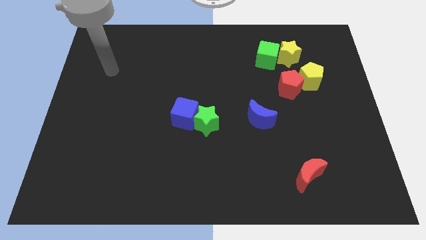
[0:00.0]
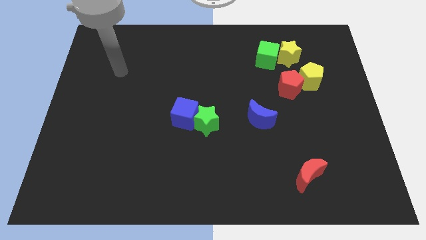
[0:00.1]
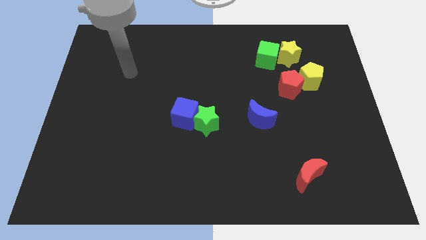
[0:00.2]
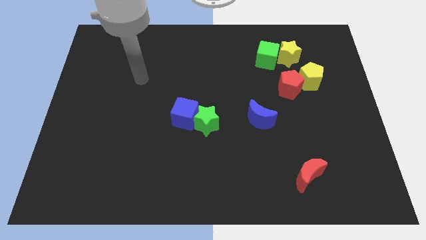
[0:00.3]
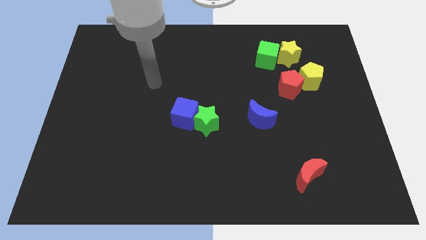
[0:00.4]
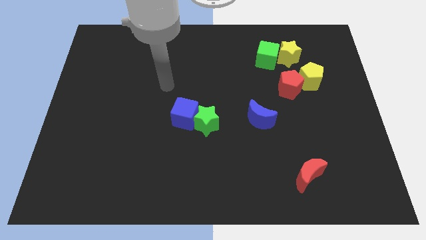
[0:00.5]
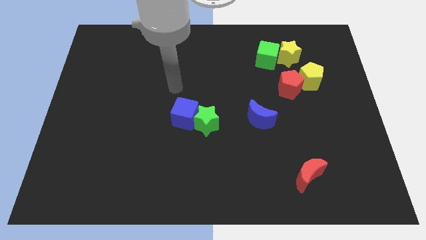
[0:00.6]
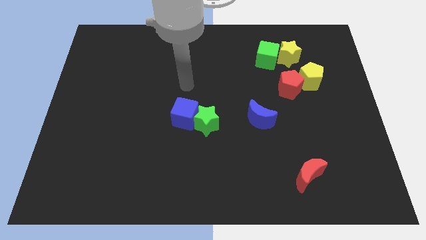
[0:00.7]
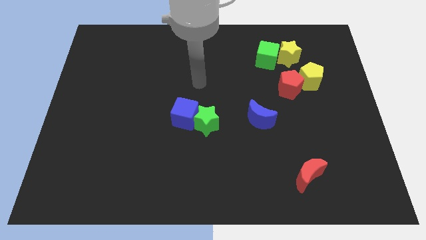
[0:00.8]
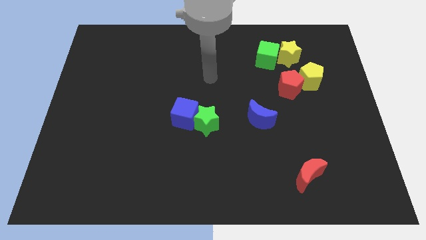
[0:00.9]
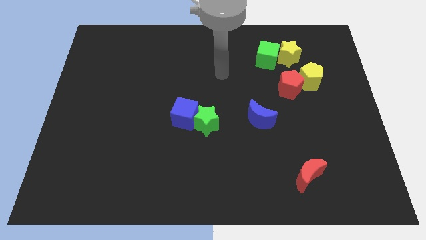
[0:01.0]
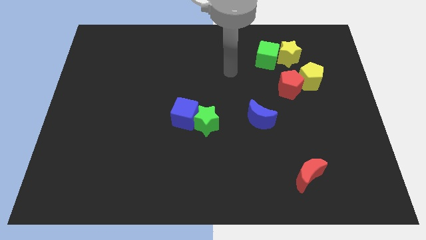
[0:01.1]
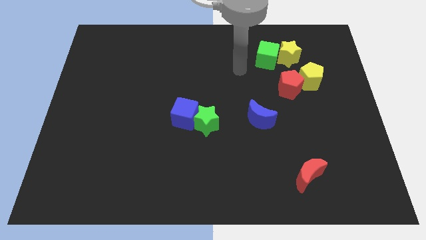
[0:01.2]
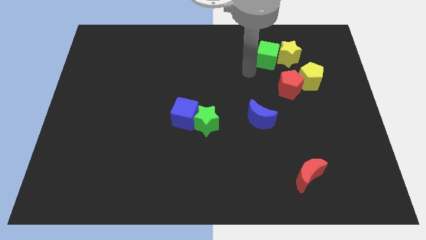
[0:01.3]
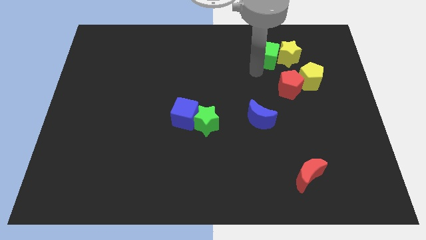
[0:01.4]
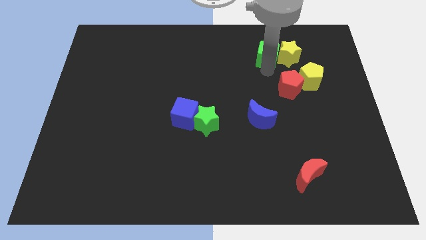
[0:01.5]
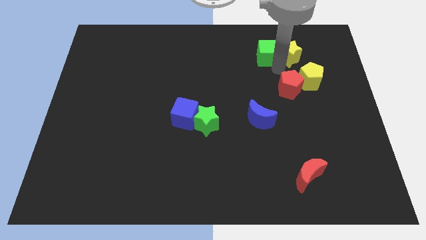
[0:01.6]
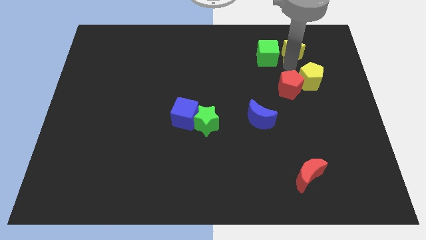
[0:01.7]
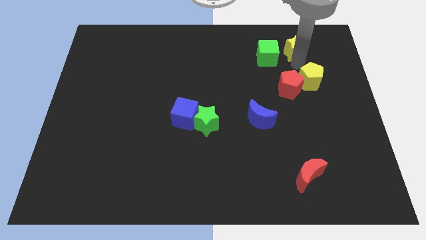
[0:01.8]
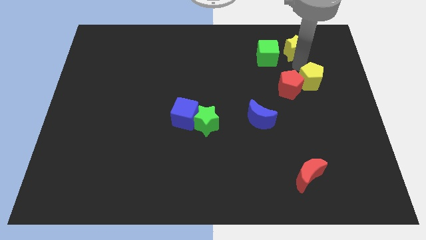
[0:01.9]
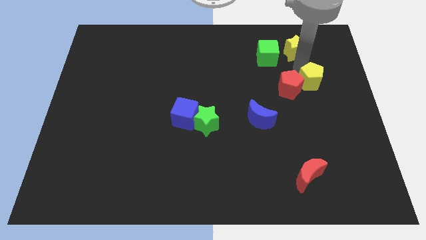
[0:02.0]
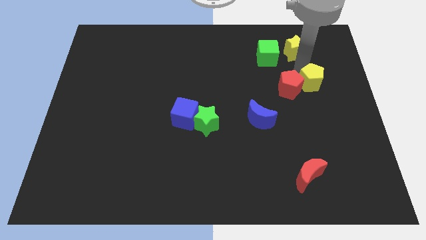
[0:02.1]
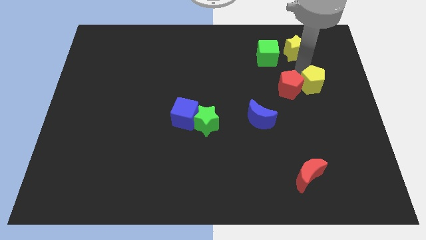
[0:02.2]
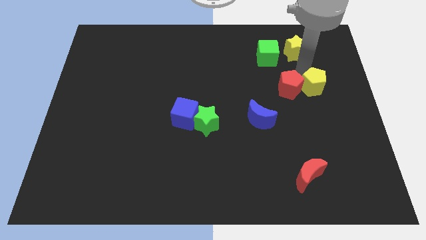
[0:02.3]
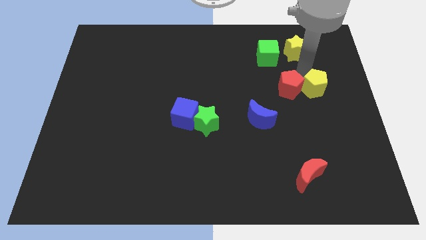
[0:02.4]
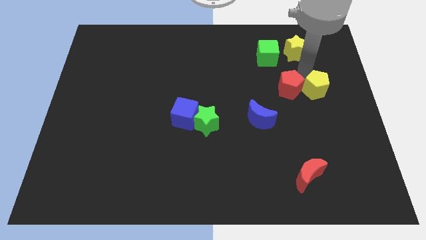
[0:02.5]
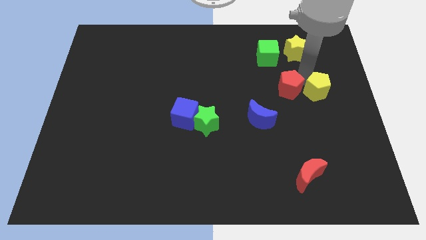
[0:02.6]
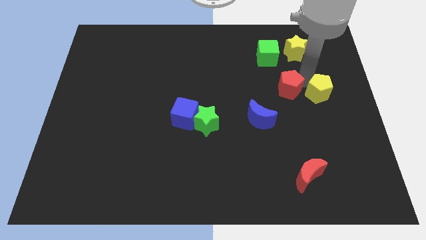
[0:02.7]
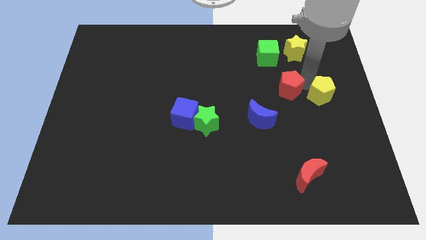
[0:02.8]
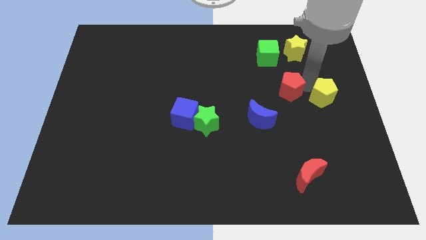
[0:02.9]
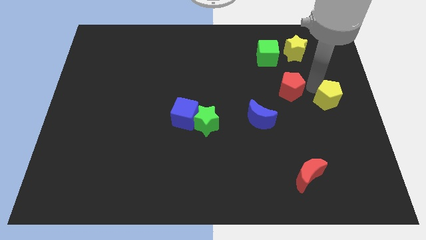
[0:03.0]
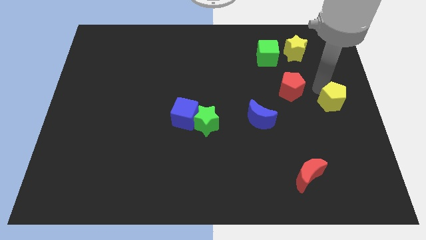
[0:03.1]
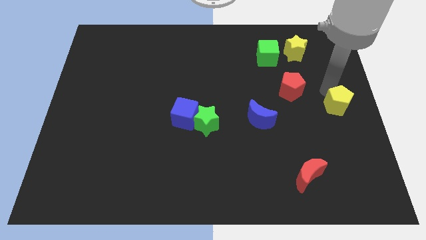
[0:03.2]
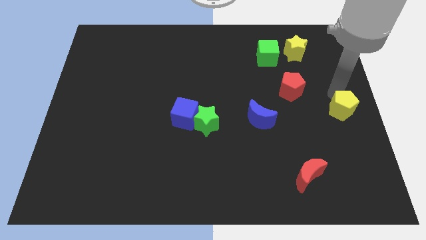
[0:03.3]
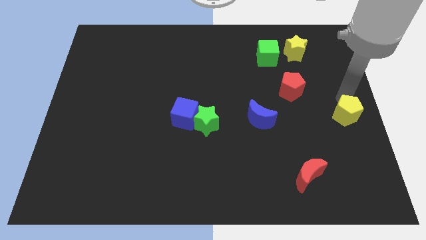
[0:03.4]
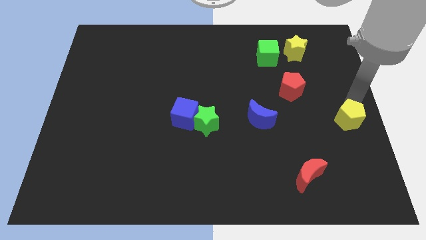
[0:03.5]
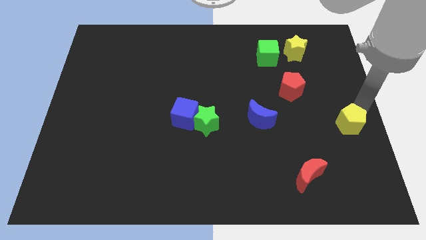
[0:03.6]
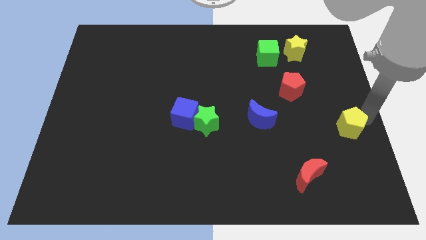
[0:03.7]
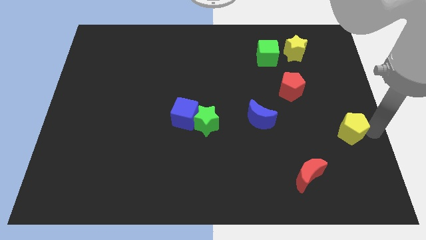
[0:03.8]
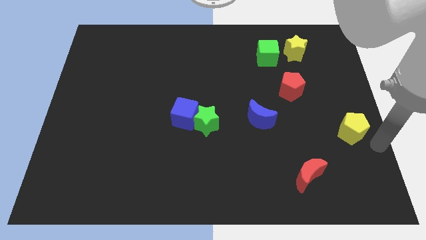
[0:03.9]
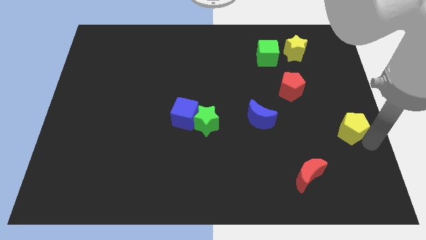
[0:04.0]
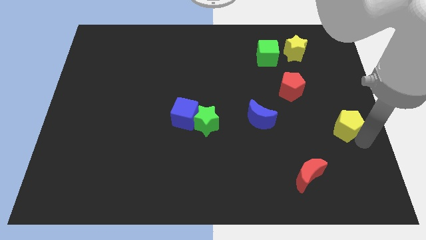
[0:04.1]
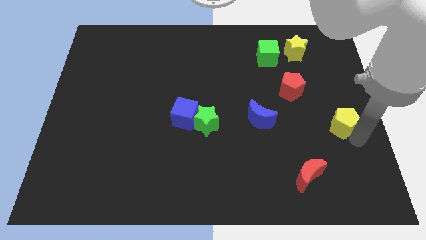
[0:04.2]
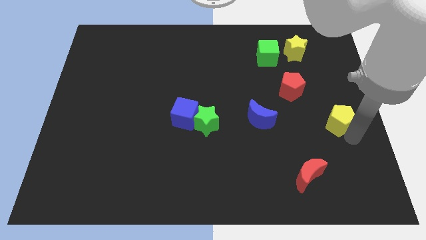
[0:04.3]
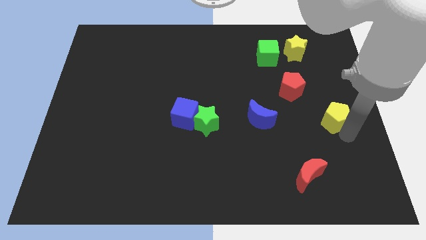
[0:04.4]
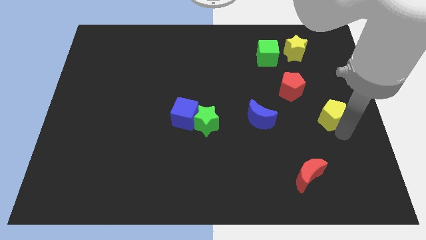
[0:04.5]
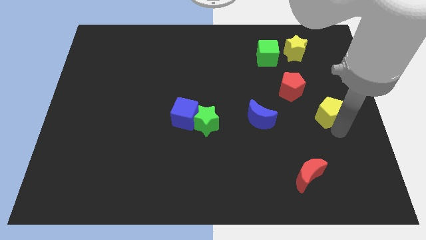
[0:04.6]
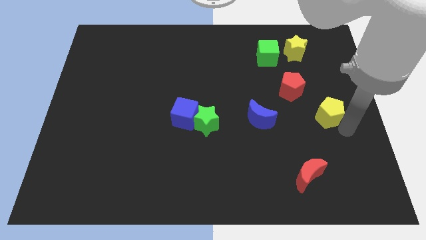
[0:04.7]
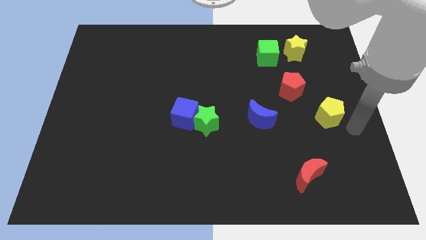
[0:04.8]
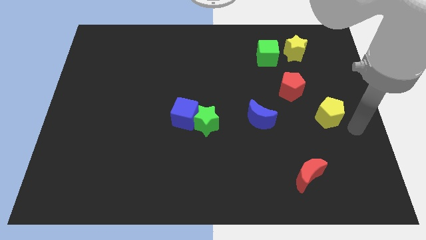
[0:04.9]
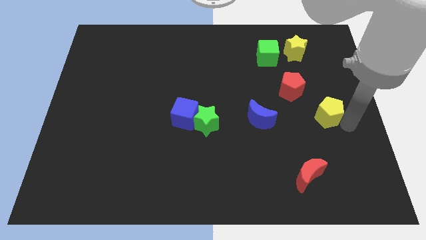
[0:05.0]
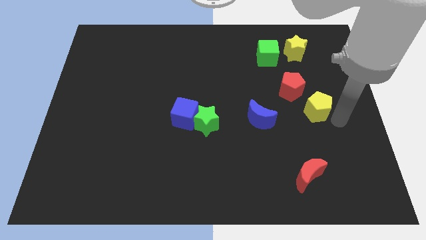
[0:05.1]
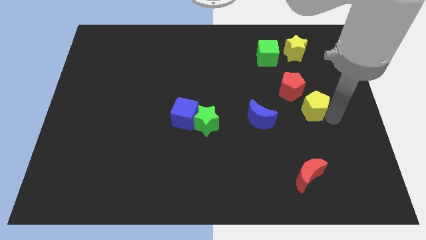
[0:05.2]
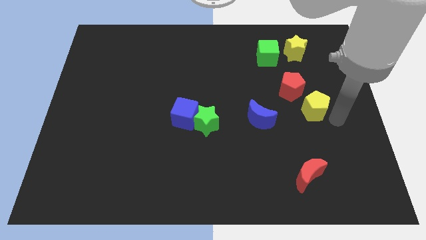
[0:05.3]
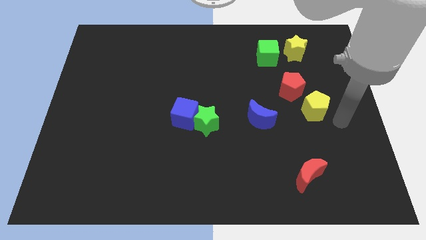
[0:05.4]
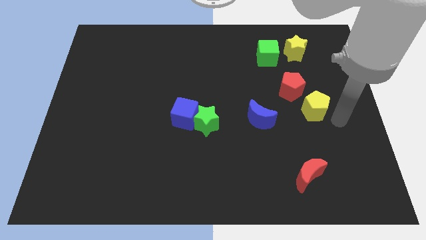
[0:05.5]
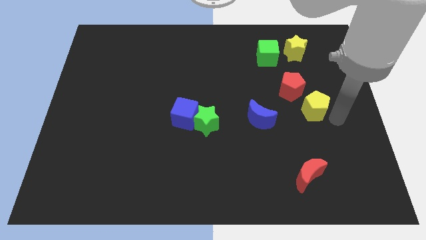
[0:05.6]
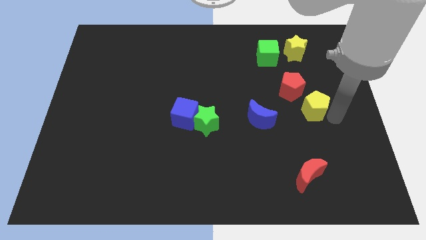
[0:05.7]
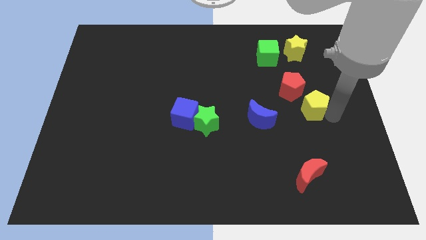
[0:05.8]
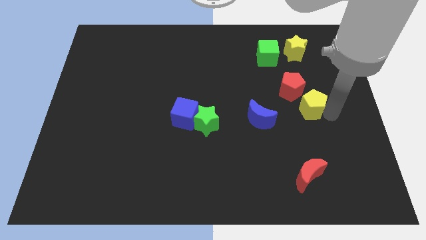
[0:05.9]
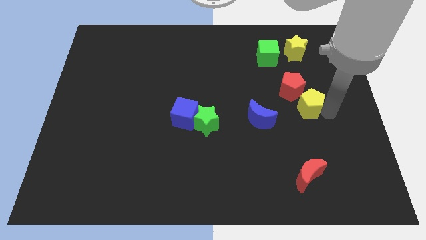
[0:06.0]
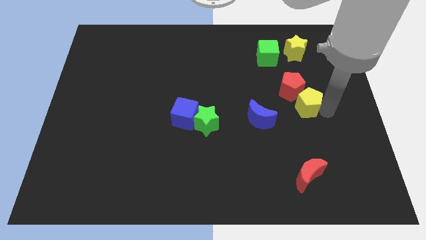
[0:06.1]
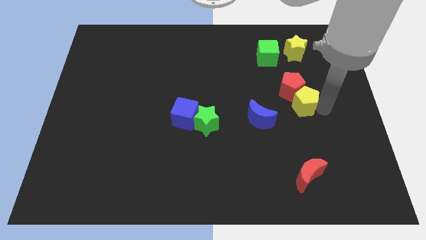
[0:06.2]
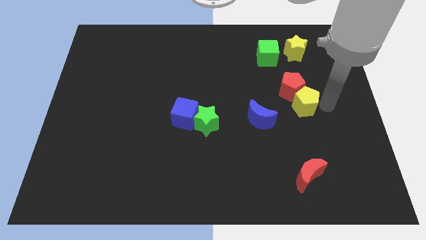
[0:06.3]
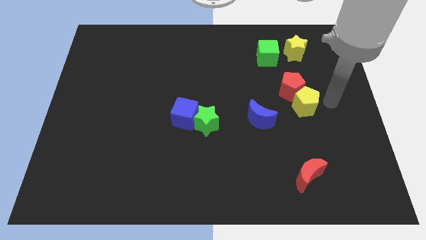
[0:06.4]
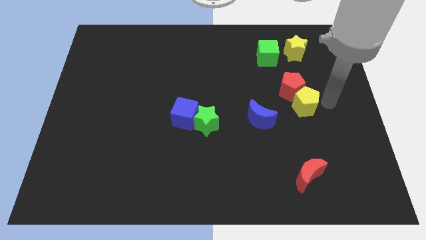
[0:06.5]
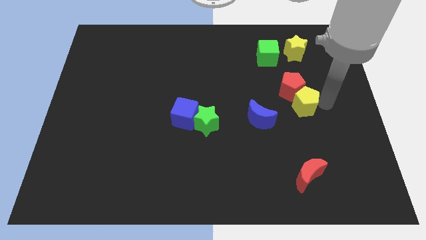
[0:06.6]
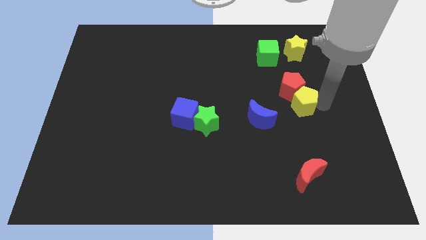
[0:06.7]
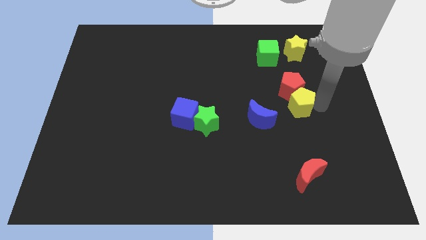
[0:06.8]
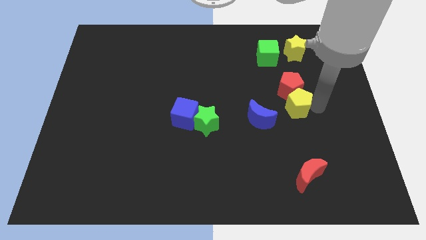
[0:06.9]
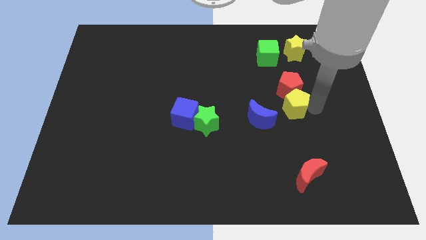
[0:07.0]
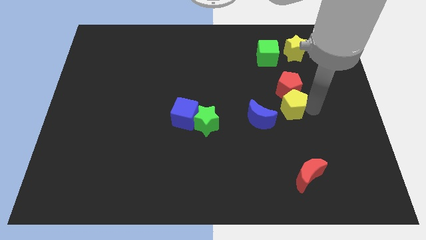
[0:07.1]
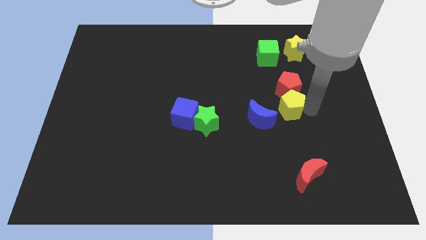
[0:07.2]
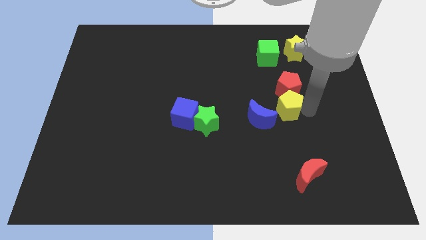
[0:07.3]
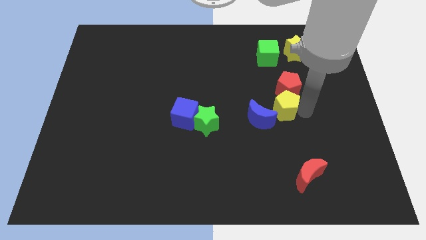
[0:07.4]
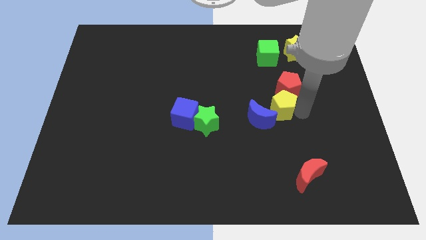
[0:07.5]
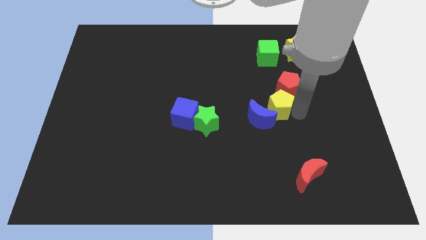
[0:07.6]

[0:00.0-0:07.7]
move the yellow pentagon next to the blue moon
